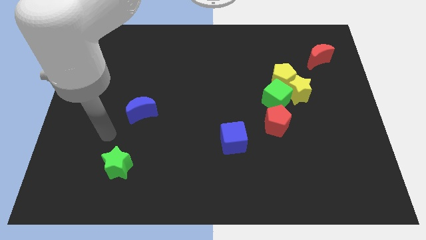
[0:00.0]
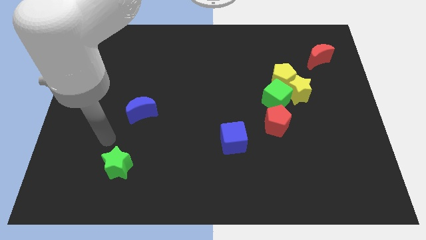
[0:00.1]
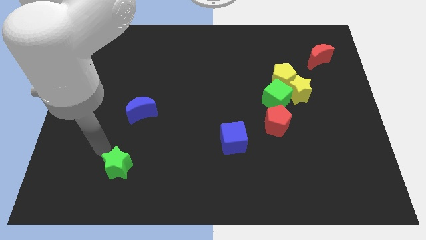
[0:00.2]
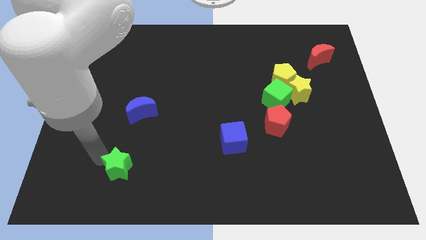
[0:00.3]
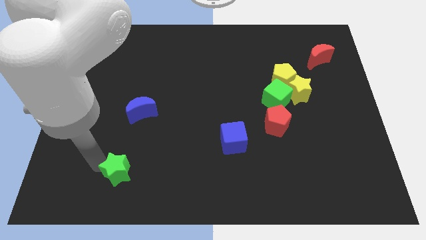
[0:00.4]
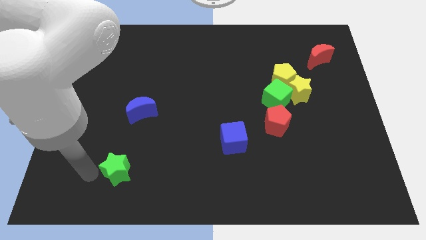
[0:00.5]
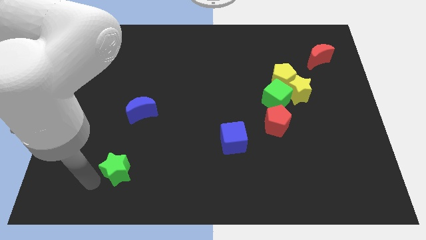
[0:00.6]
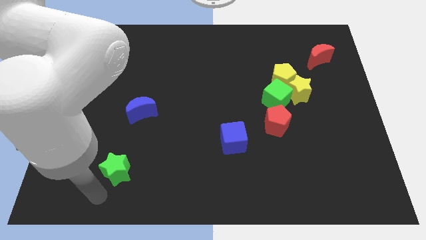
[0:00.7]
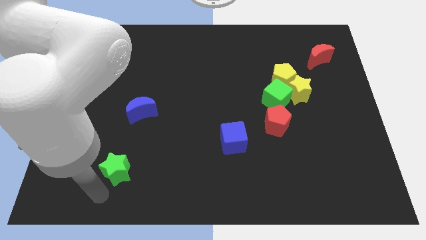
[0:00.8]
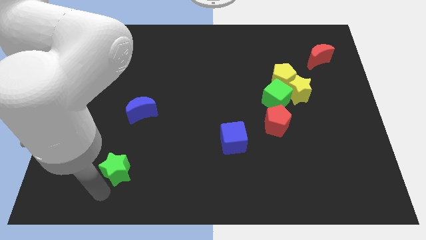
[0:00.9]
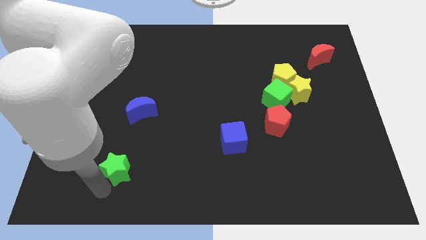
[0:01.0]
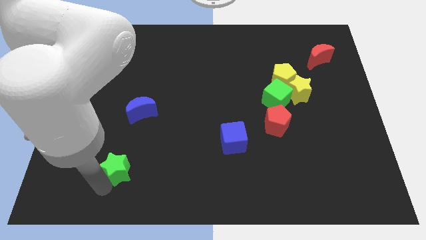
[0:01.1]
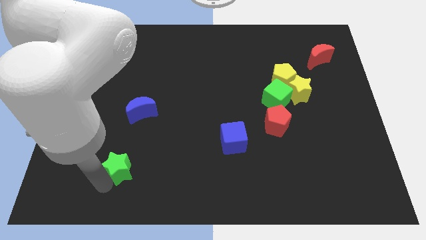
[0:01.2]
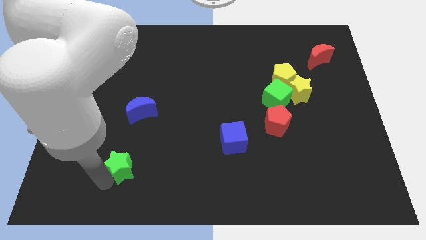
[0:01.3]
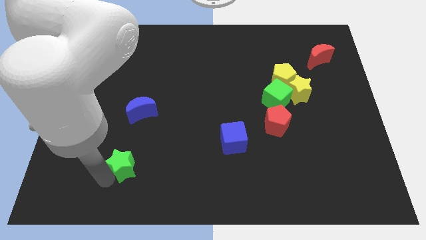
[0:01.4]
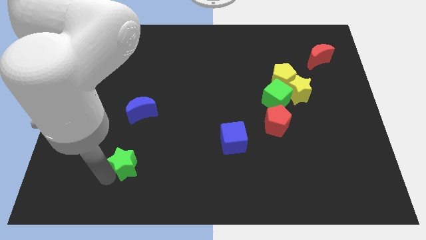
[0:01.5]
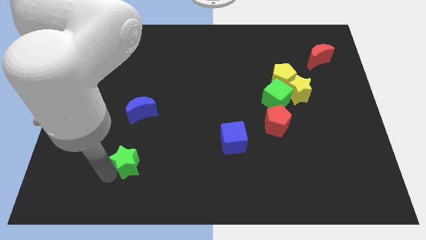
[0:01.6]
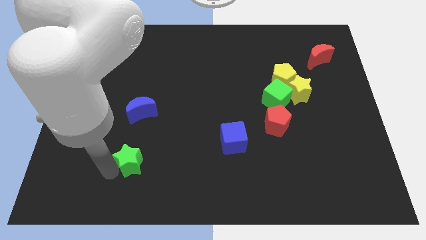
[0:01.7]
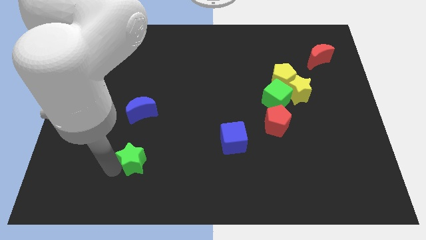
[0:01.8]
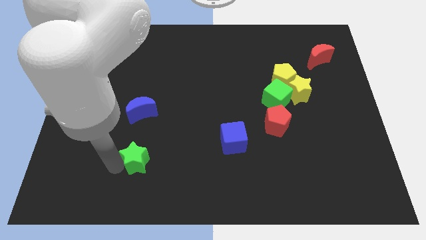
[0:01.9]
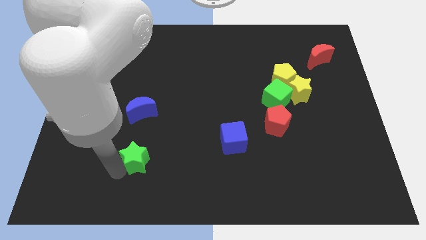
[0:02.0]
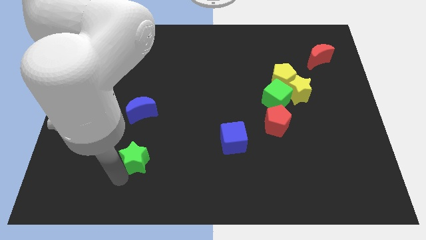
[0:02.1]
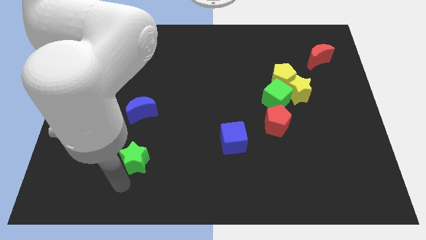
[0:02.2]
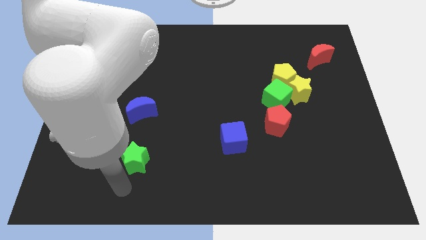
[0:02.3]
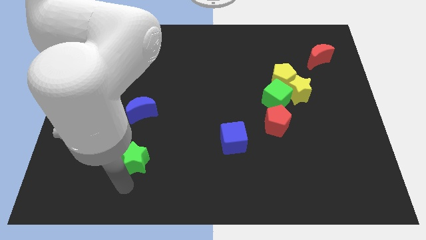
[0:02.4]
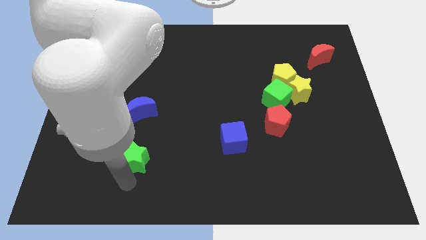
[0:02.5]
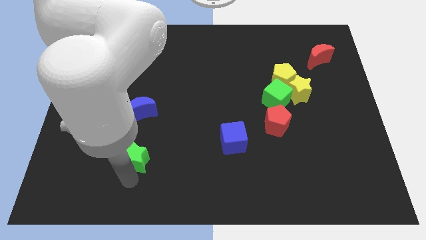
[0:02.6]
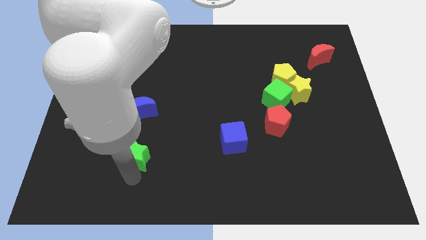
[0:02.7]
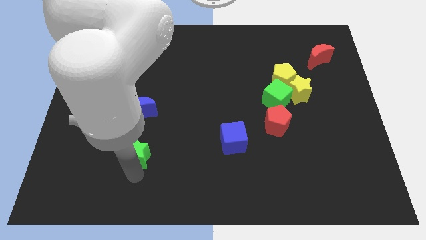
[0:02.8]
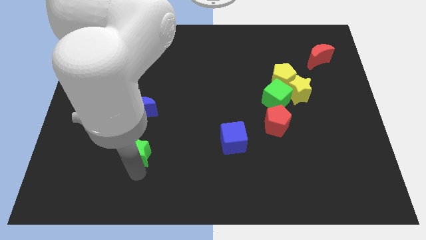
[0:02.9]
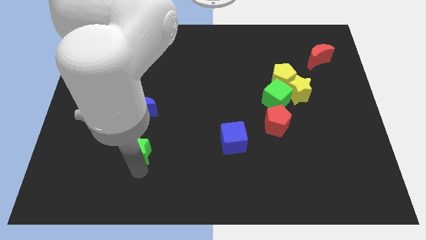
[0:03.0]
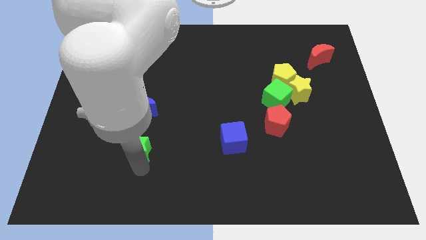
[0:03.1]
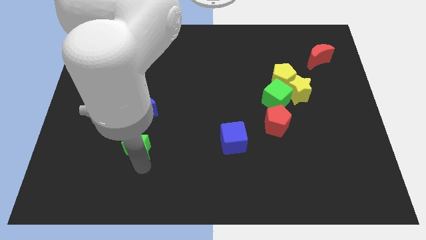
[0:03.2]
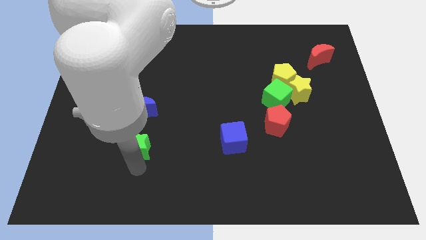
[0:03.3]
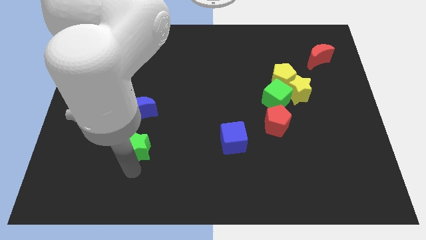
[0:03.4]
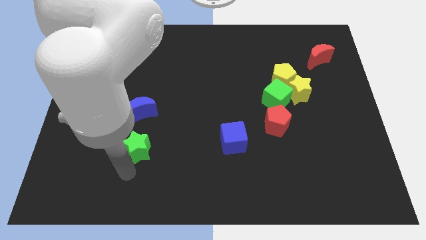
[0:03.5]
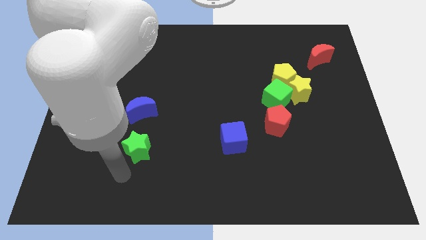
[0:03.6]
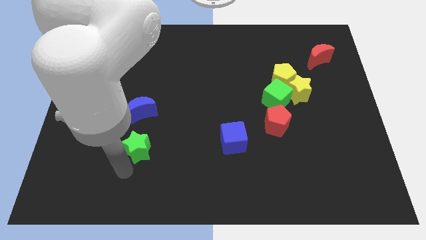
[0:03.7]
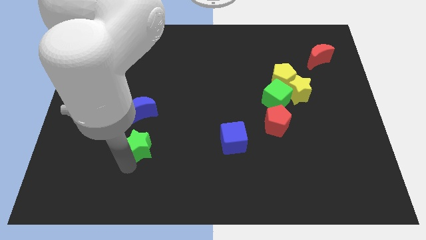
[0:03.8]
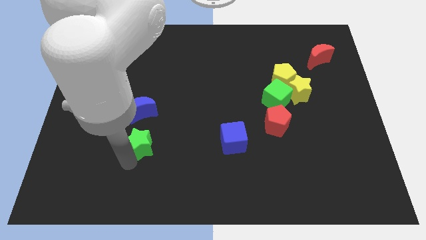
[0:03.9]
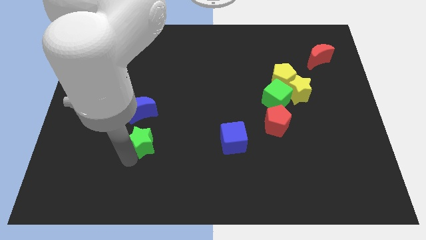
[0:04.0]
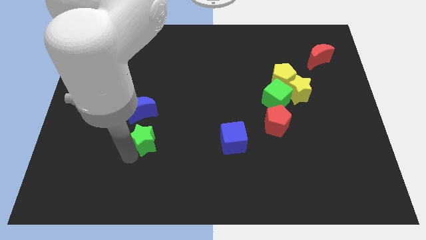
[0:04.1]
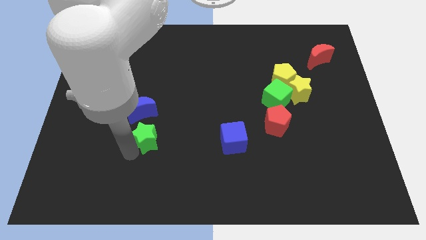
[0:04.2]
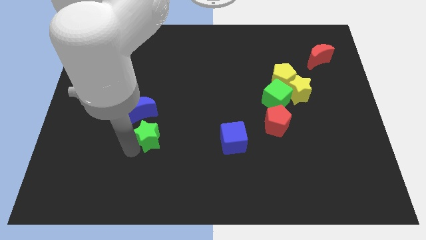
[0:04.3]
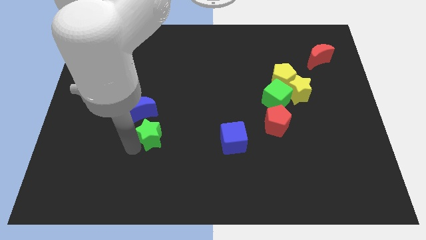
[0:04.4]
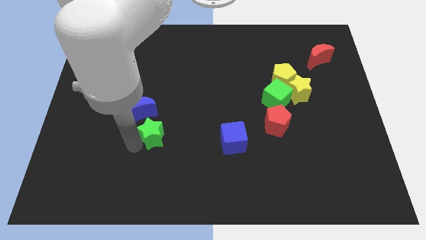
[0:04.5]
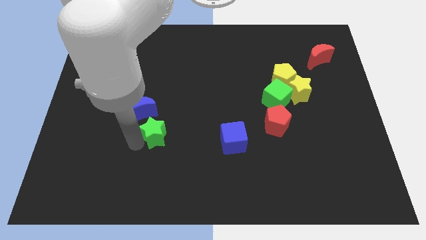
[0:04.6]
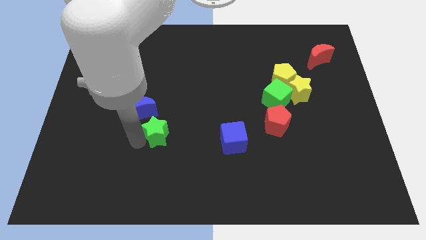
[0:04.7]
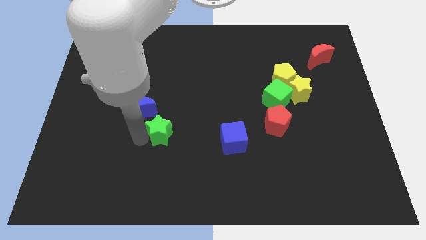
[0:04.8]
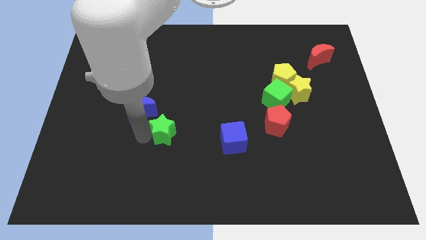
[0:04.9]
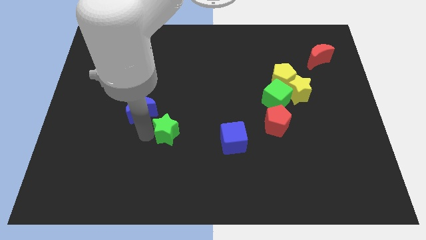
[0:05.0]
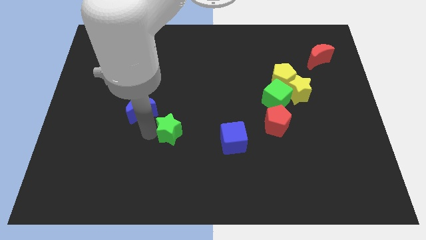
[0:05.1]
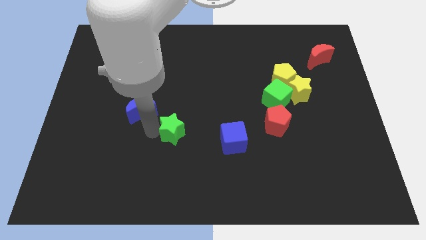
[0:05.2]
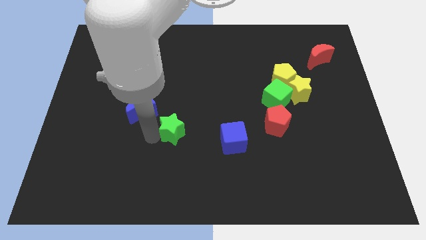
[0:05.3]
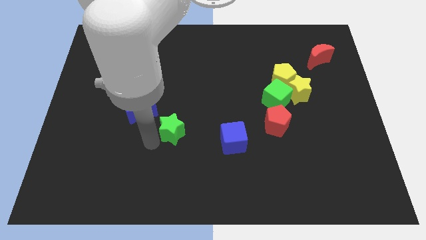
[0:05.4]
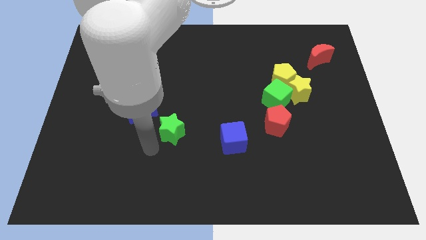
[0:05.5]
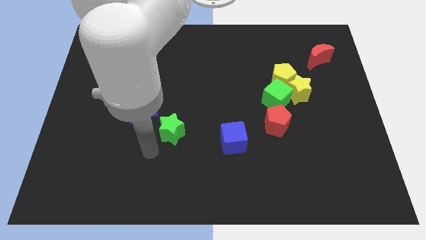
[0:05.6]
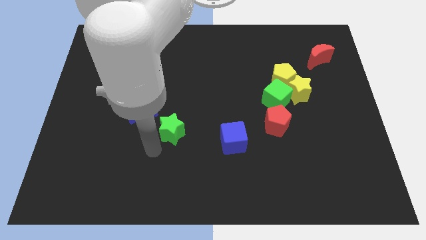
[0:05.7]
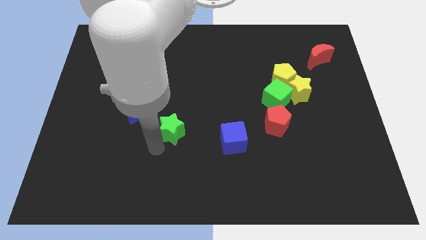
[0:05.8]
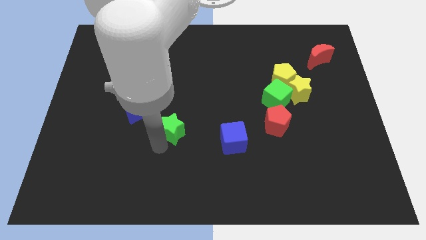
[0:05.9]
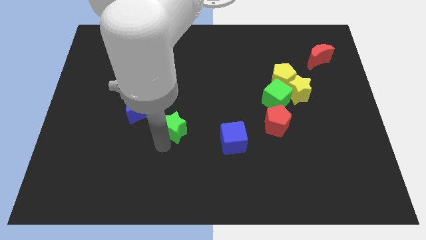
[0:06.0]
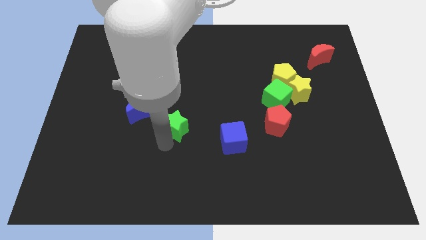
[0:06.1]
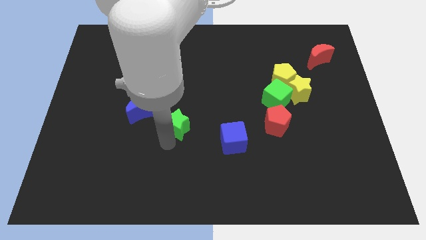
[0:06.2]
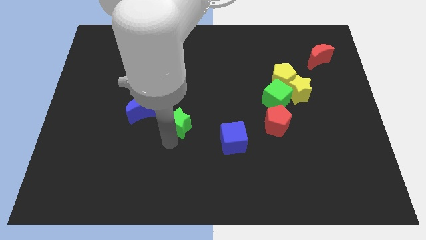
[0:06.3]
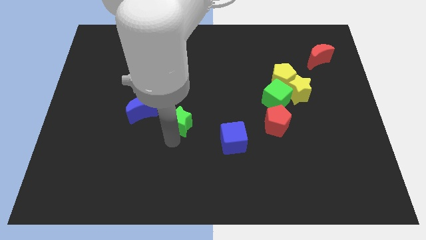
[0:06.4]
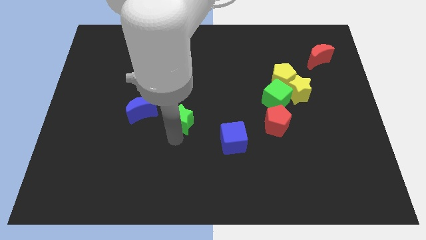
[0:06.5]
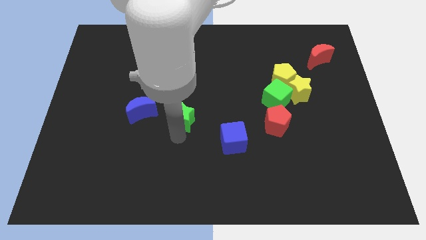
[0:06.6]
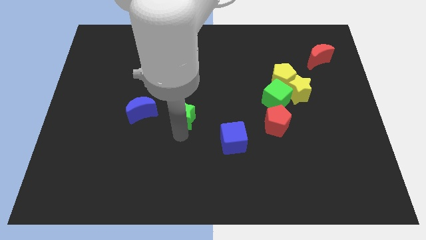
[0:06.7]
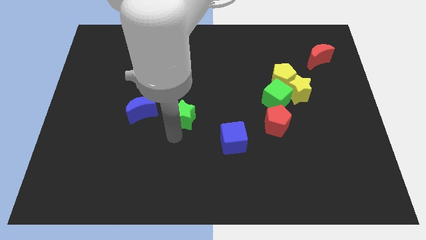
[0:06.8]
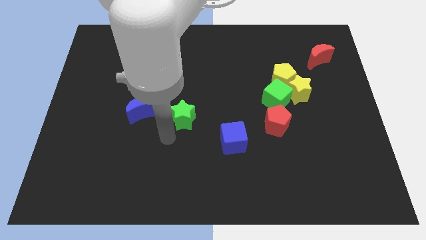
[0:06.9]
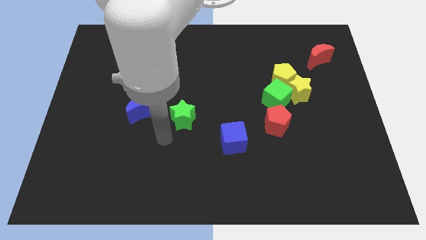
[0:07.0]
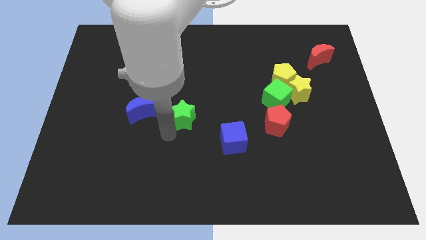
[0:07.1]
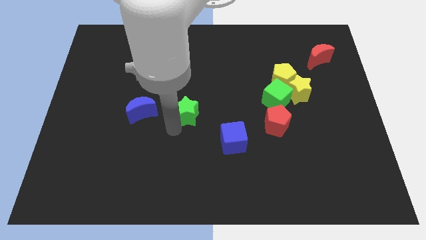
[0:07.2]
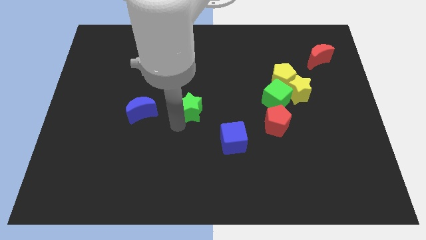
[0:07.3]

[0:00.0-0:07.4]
push the green star up and right

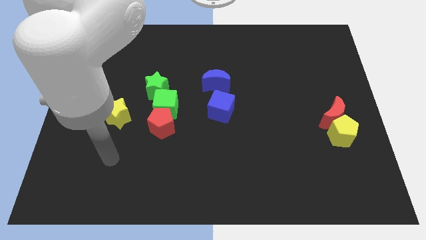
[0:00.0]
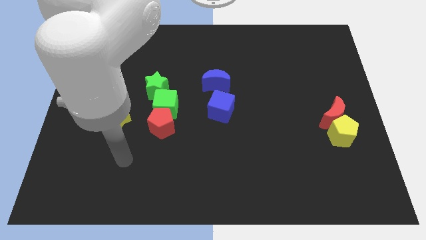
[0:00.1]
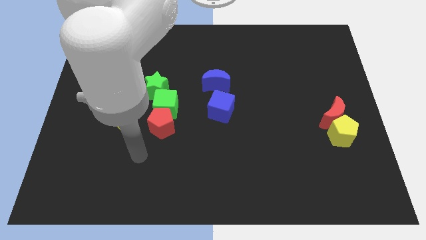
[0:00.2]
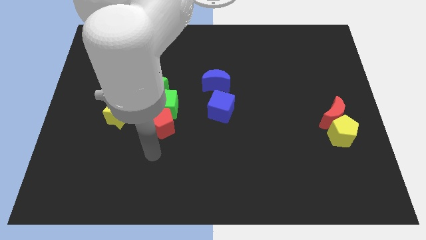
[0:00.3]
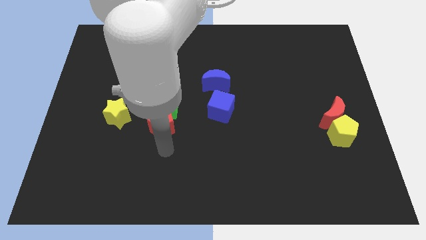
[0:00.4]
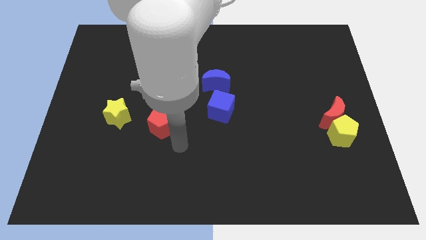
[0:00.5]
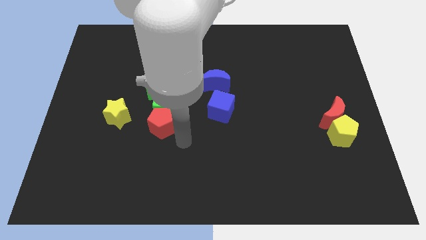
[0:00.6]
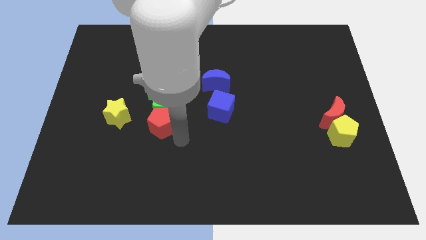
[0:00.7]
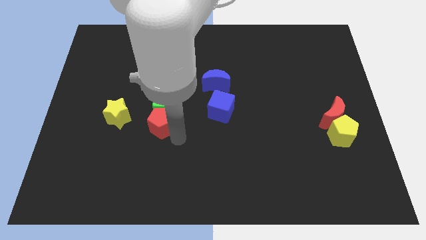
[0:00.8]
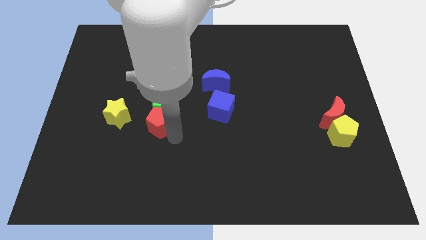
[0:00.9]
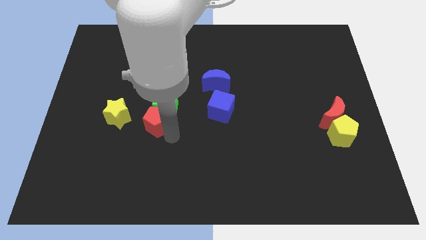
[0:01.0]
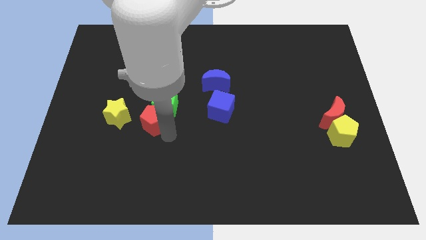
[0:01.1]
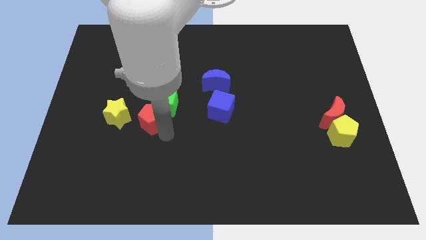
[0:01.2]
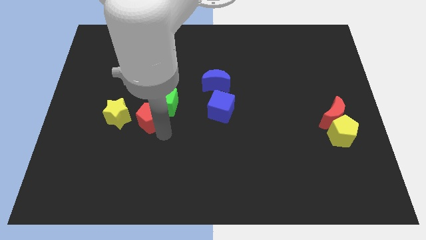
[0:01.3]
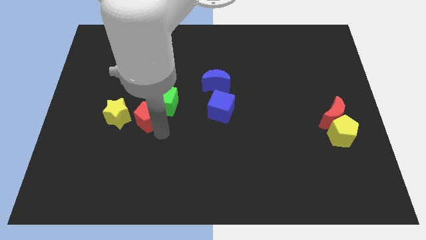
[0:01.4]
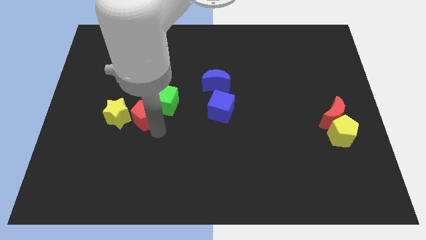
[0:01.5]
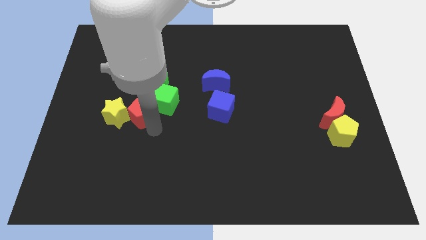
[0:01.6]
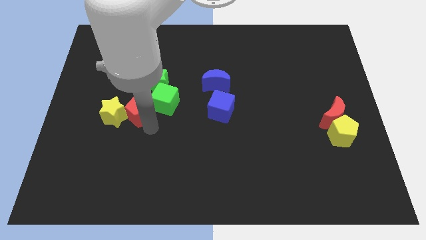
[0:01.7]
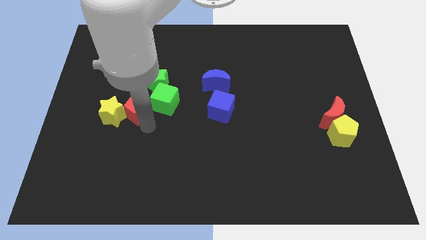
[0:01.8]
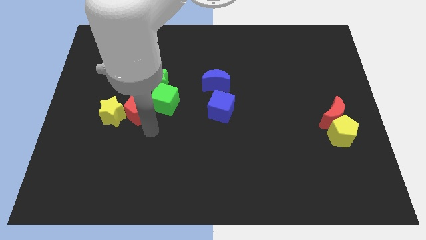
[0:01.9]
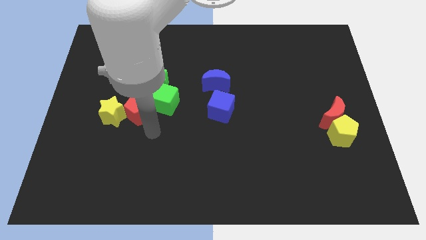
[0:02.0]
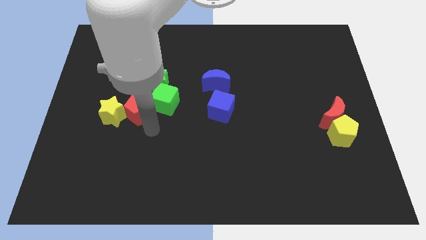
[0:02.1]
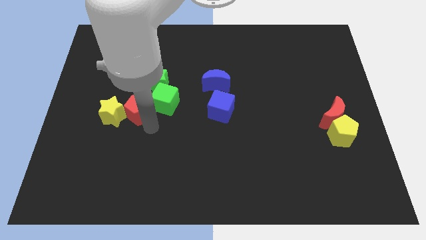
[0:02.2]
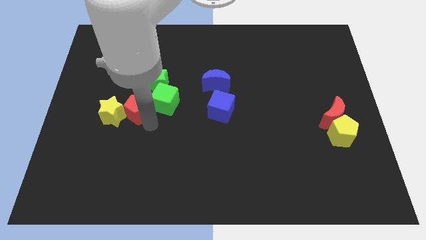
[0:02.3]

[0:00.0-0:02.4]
move the red pentagon up and to the left a bit
